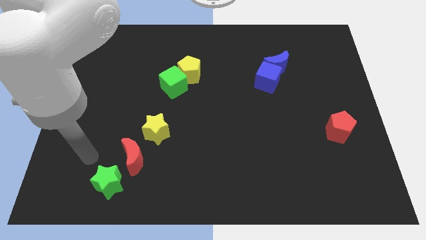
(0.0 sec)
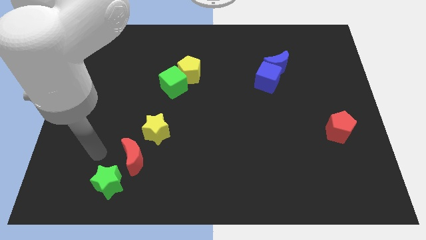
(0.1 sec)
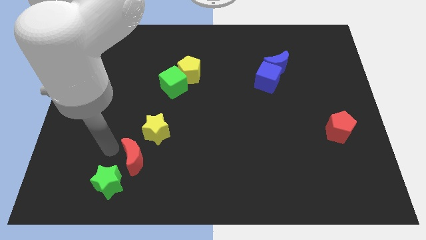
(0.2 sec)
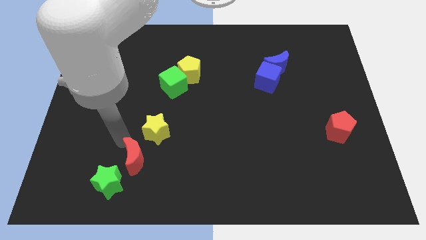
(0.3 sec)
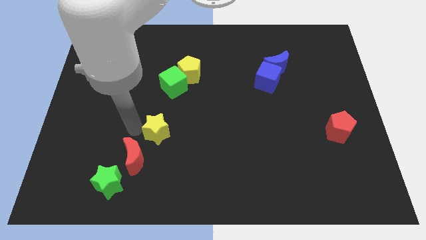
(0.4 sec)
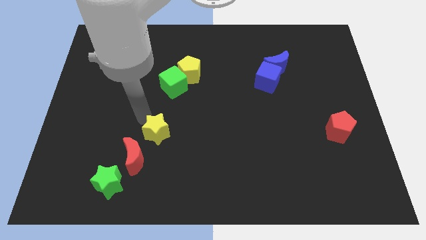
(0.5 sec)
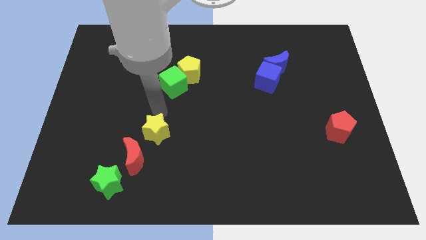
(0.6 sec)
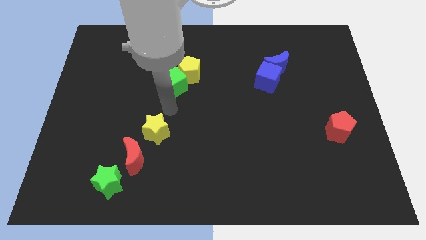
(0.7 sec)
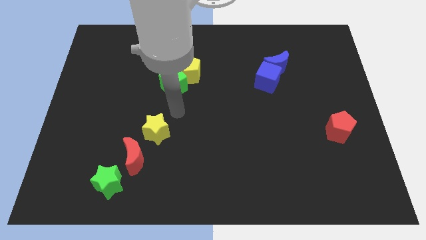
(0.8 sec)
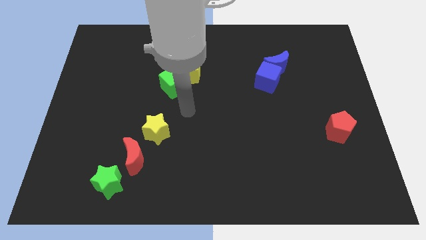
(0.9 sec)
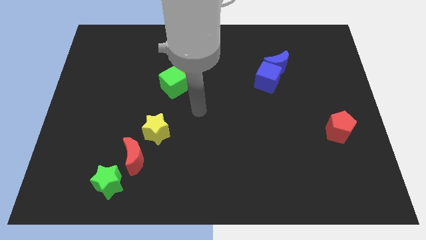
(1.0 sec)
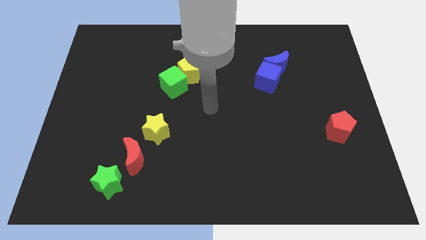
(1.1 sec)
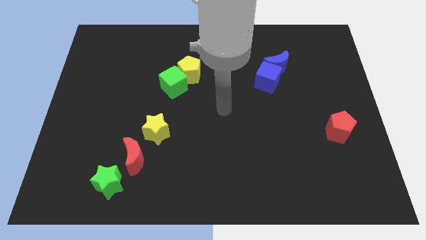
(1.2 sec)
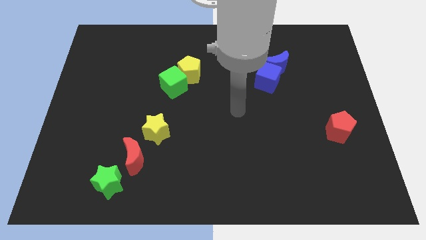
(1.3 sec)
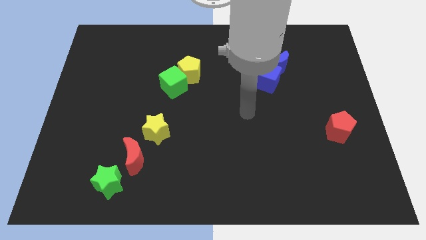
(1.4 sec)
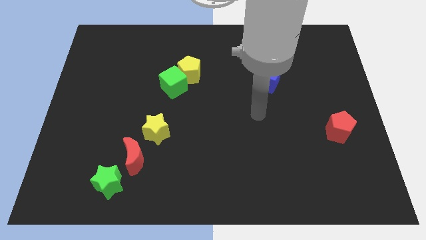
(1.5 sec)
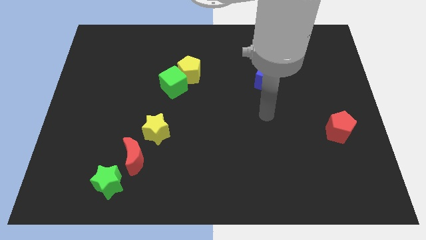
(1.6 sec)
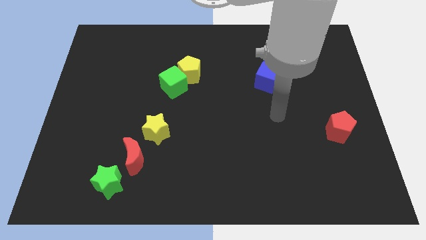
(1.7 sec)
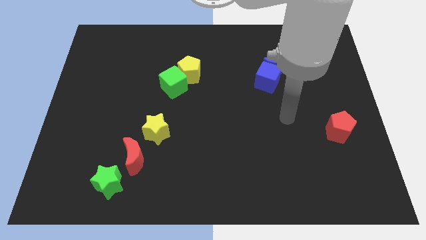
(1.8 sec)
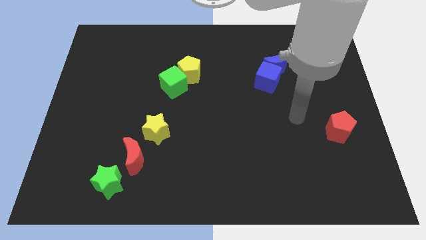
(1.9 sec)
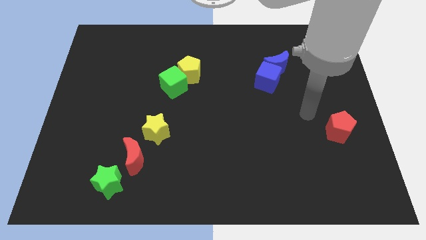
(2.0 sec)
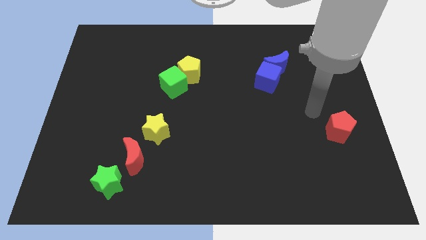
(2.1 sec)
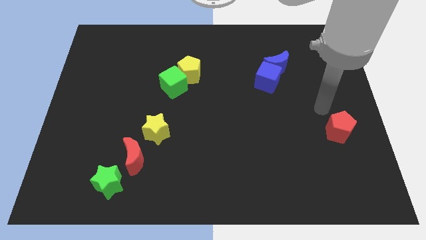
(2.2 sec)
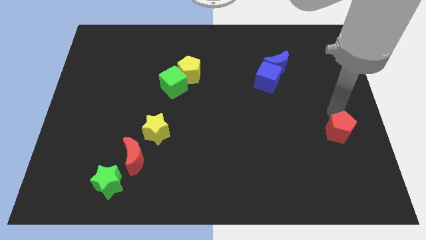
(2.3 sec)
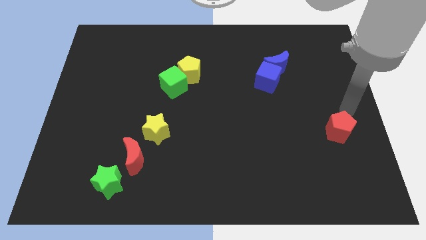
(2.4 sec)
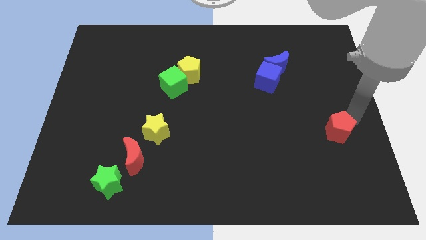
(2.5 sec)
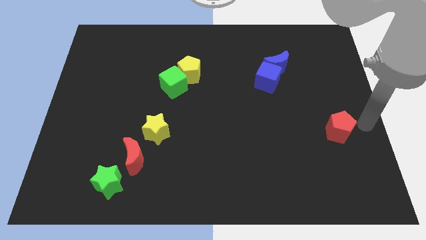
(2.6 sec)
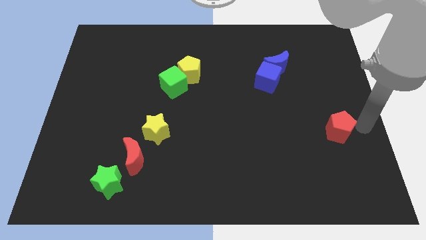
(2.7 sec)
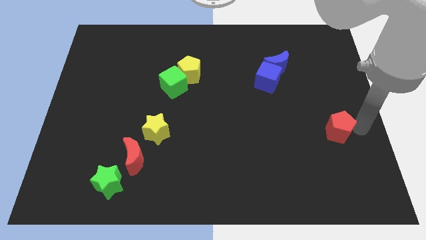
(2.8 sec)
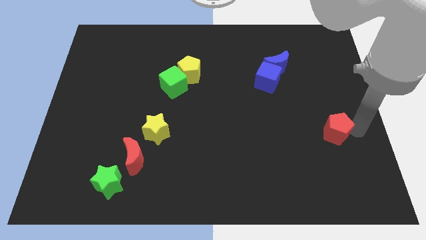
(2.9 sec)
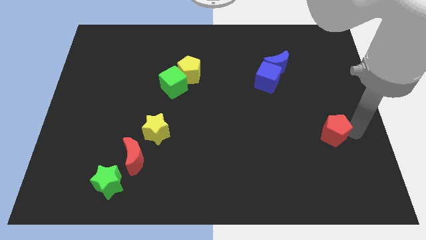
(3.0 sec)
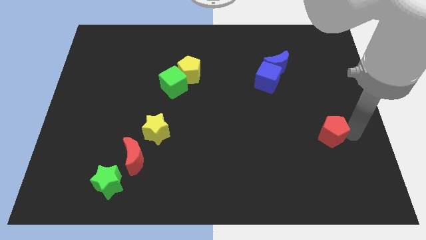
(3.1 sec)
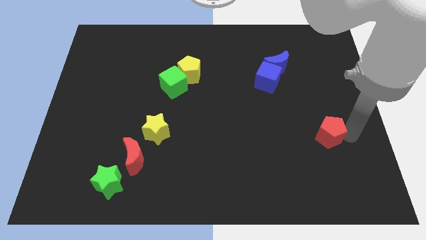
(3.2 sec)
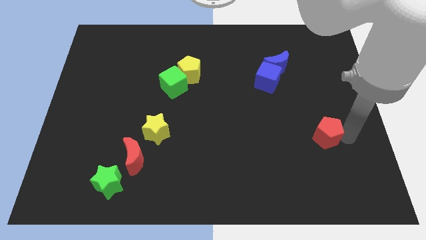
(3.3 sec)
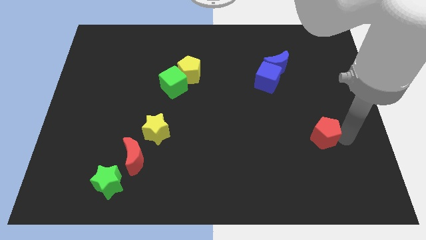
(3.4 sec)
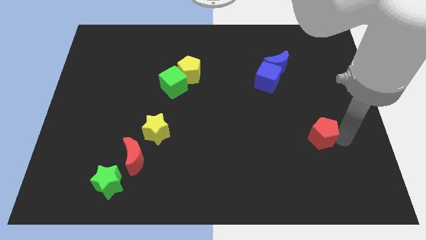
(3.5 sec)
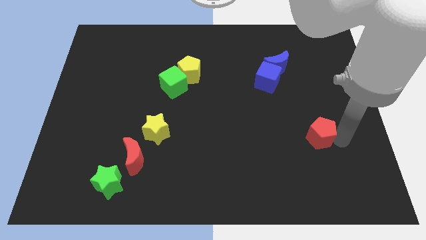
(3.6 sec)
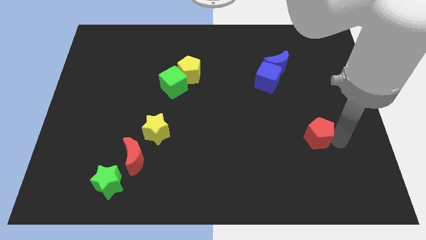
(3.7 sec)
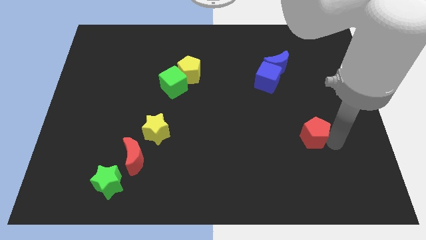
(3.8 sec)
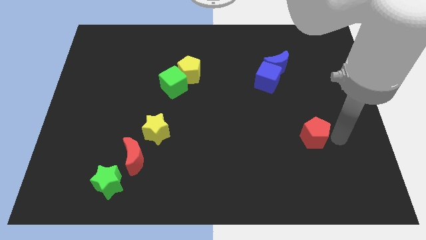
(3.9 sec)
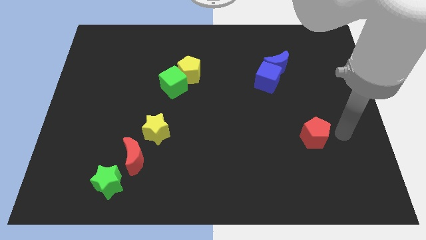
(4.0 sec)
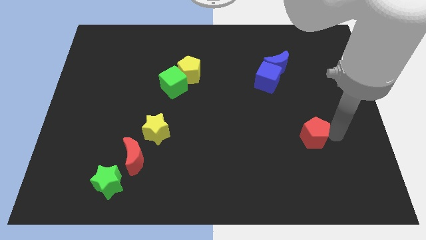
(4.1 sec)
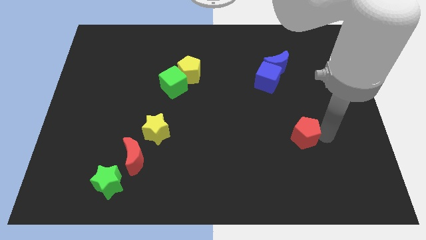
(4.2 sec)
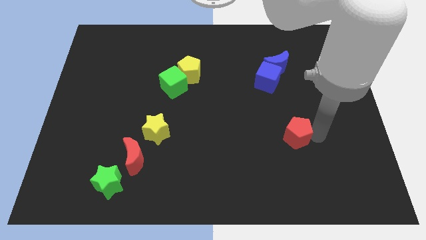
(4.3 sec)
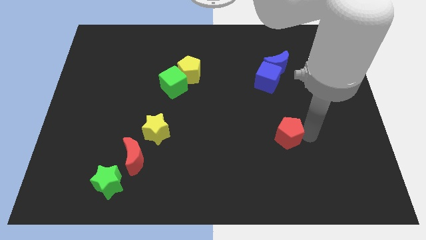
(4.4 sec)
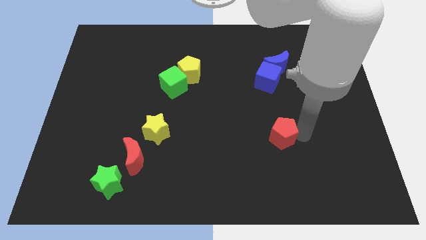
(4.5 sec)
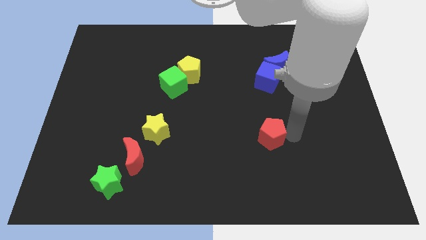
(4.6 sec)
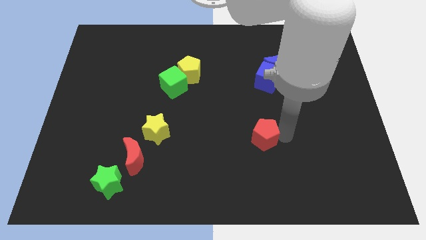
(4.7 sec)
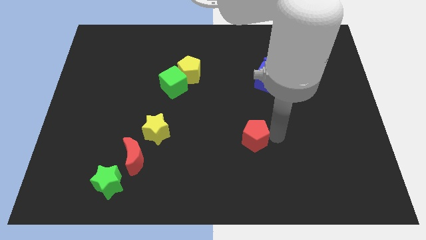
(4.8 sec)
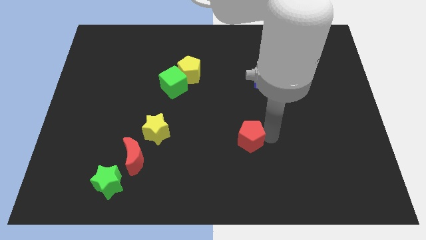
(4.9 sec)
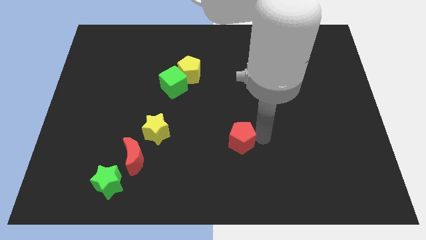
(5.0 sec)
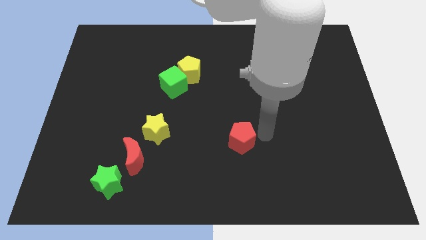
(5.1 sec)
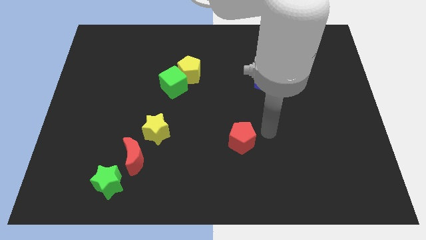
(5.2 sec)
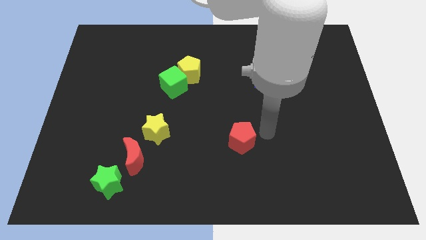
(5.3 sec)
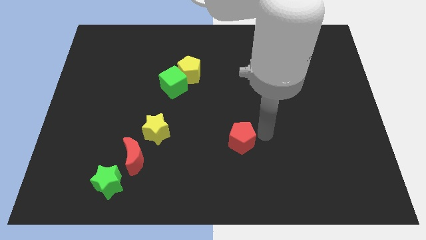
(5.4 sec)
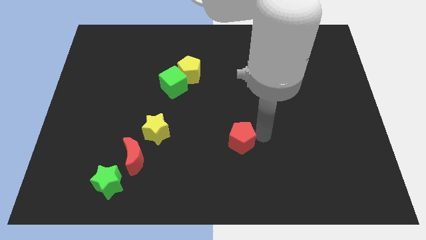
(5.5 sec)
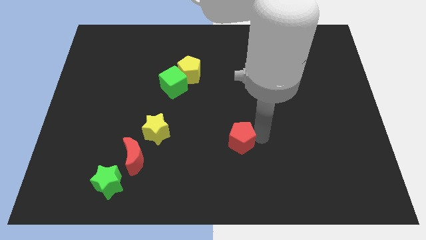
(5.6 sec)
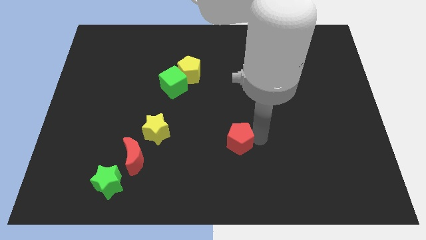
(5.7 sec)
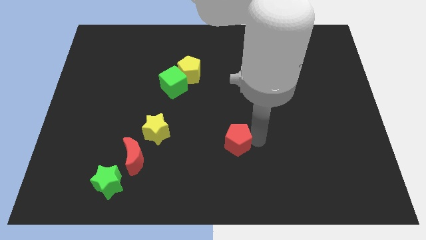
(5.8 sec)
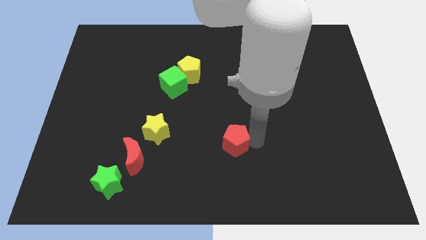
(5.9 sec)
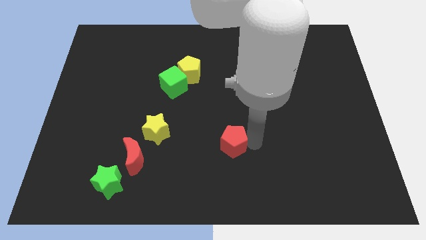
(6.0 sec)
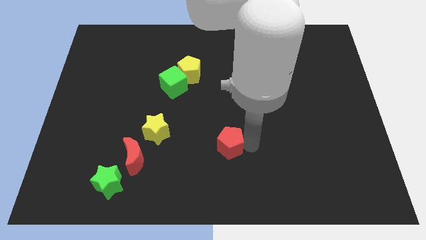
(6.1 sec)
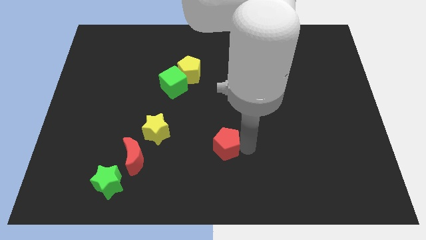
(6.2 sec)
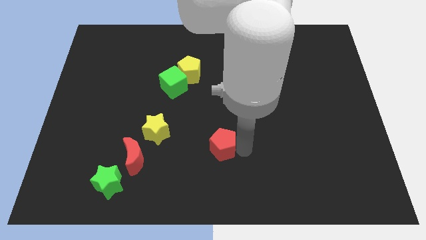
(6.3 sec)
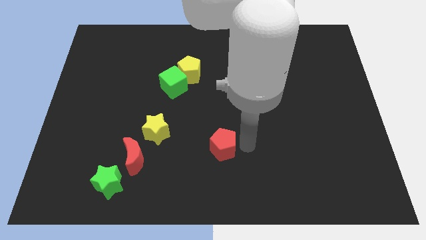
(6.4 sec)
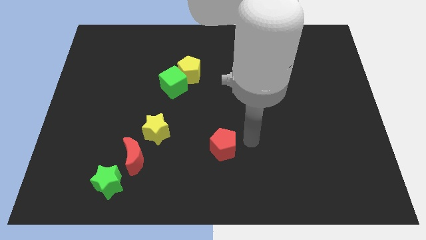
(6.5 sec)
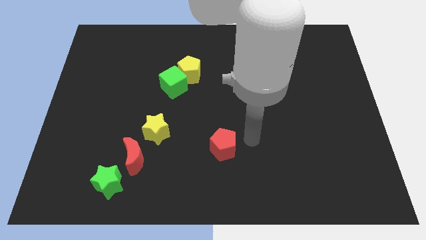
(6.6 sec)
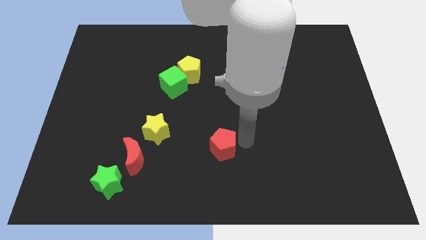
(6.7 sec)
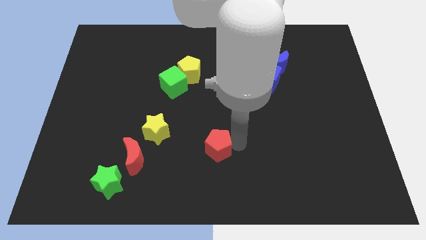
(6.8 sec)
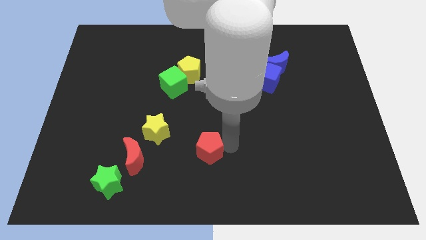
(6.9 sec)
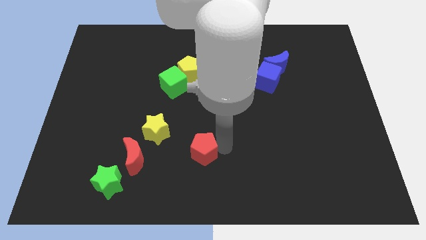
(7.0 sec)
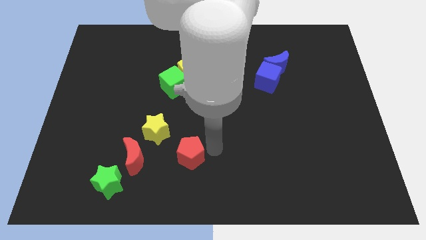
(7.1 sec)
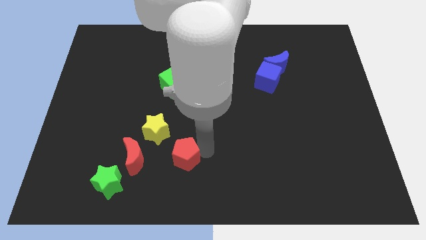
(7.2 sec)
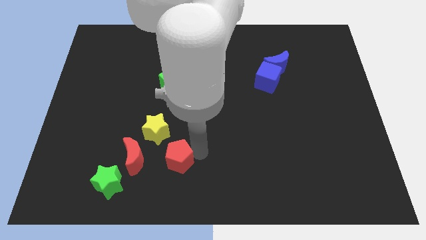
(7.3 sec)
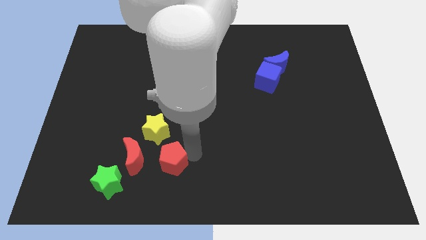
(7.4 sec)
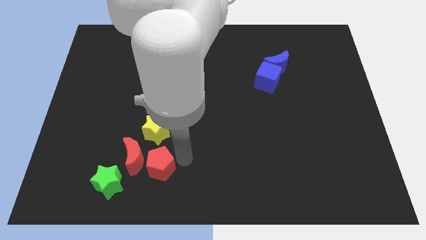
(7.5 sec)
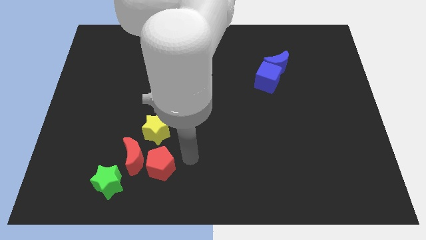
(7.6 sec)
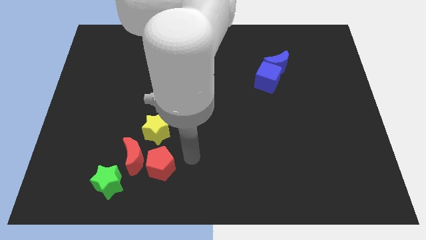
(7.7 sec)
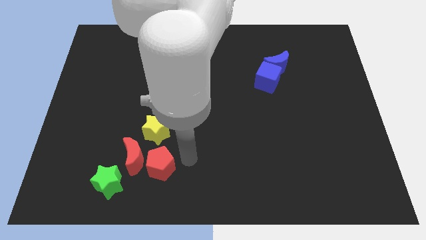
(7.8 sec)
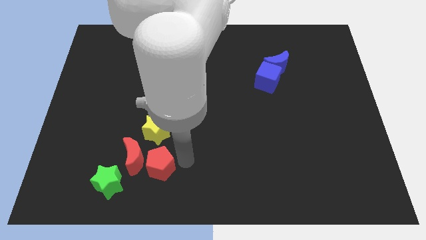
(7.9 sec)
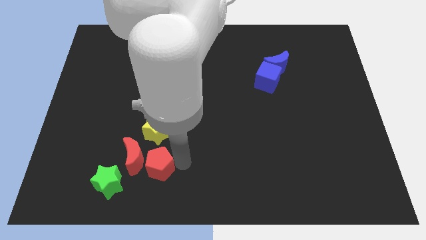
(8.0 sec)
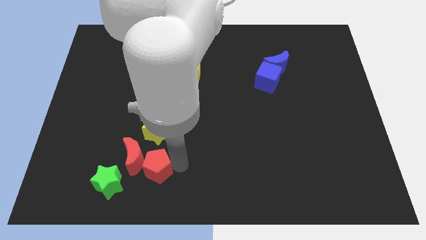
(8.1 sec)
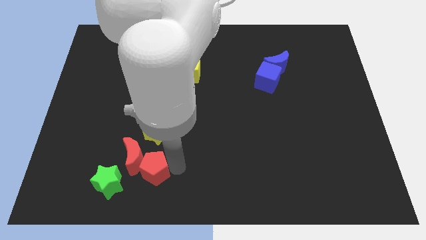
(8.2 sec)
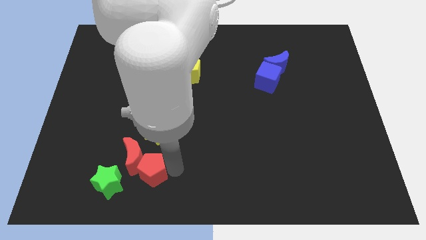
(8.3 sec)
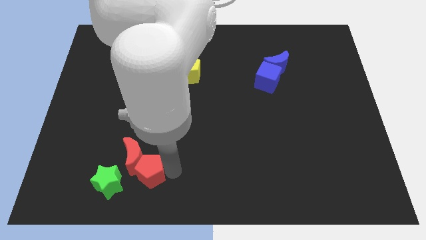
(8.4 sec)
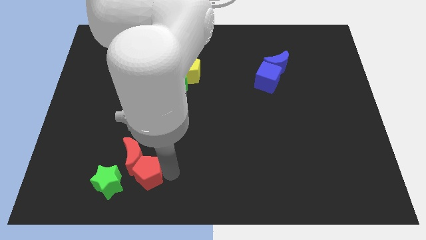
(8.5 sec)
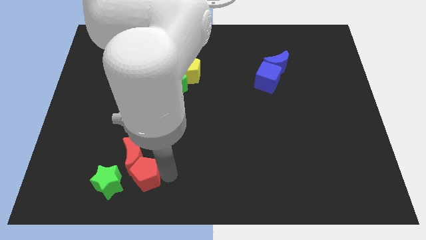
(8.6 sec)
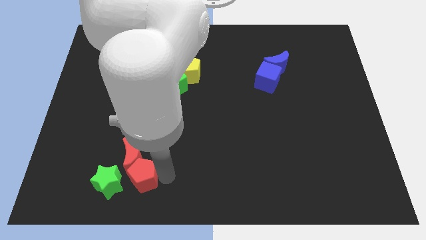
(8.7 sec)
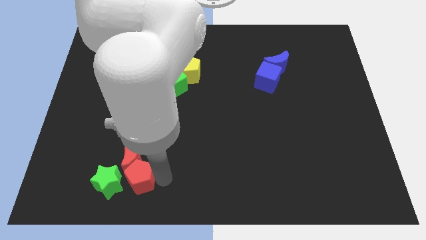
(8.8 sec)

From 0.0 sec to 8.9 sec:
move the red pentagon close to the green star
